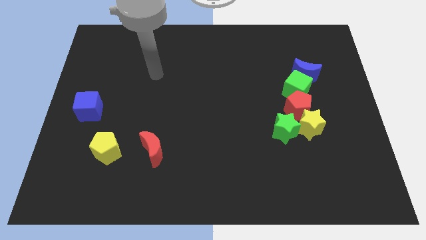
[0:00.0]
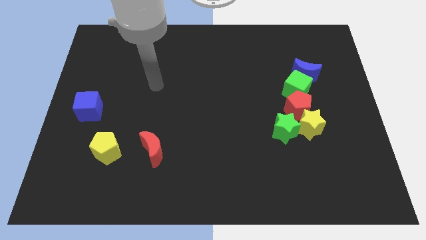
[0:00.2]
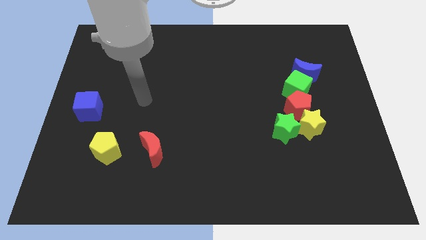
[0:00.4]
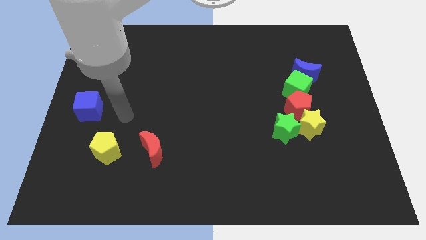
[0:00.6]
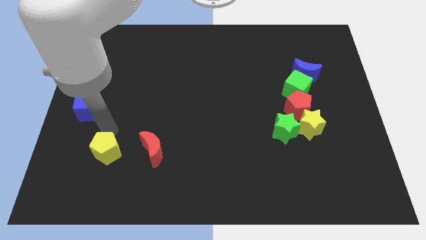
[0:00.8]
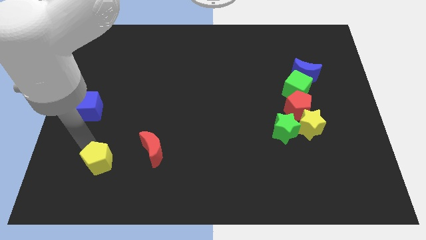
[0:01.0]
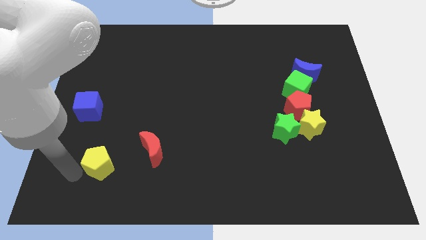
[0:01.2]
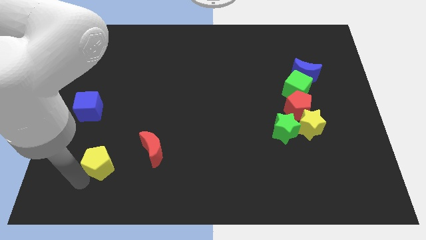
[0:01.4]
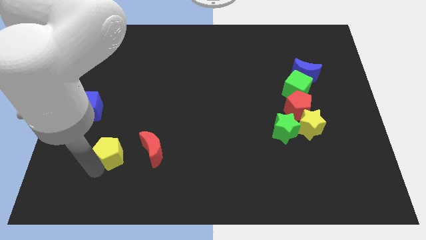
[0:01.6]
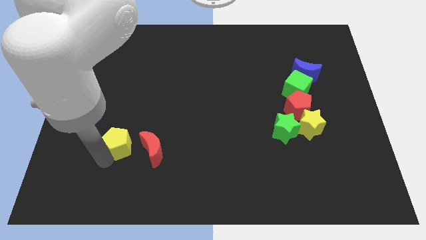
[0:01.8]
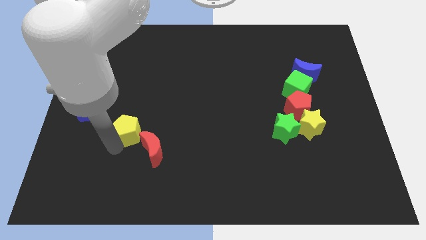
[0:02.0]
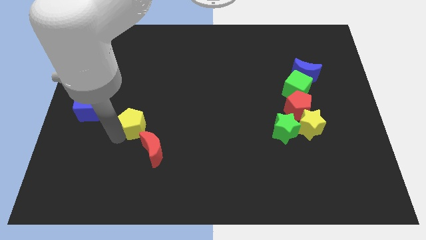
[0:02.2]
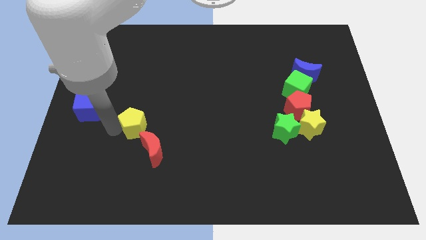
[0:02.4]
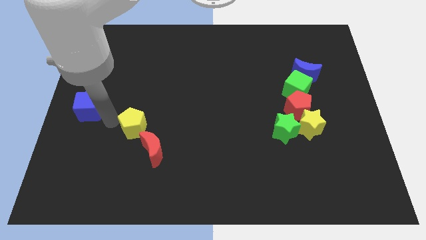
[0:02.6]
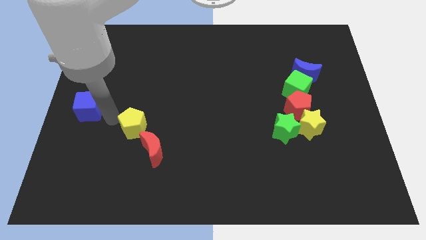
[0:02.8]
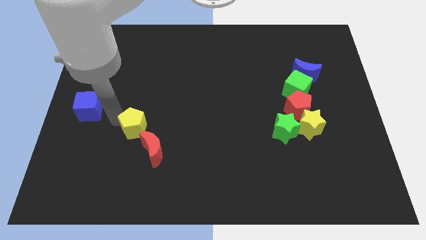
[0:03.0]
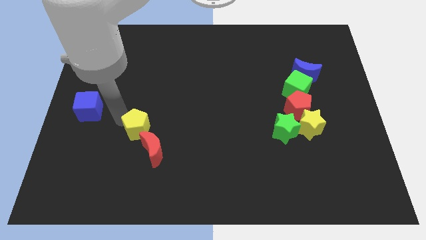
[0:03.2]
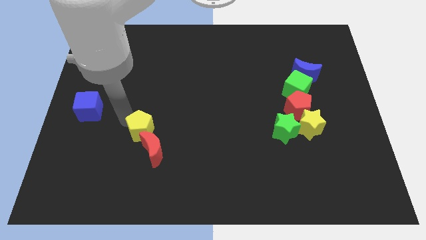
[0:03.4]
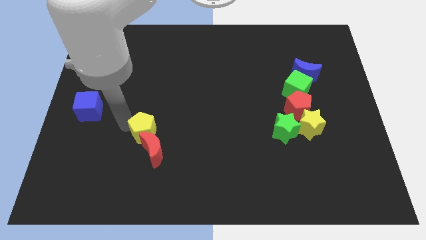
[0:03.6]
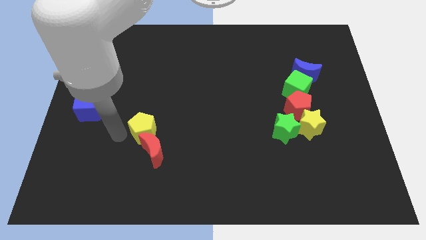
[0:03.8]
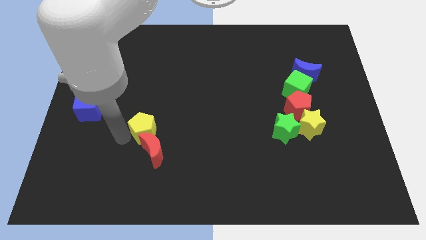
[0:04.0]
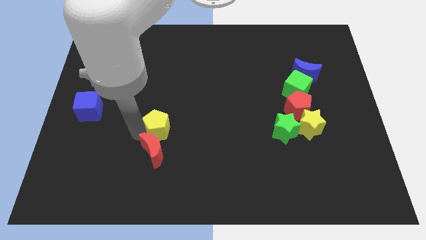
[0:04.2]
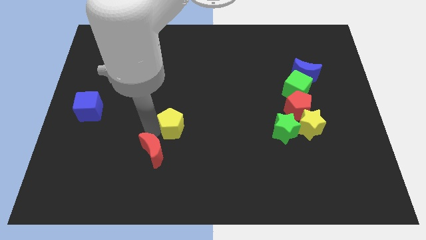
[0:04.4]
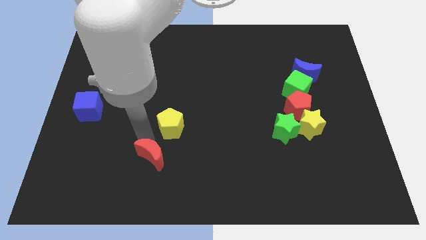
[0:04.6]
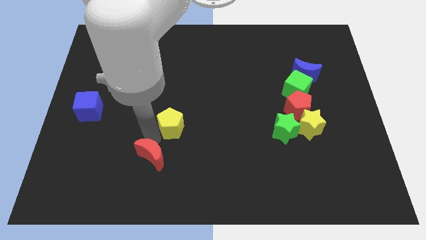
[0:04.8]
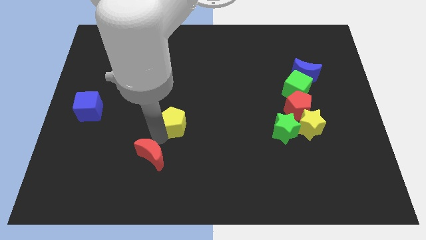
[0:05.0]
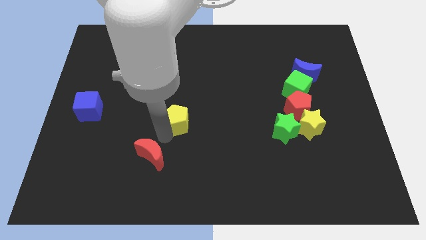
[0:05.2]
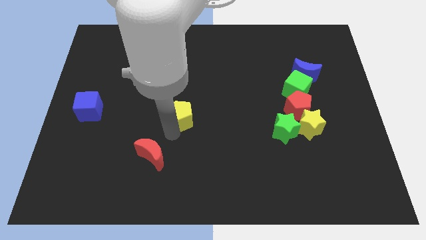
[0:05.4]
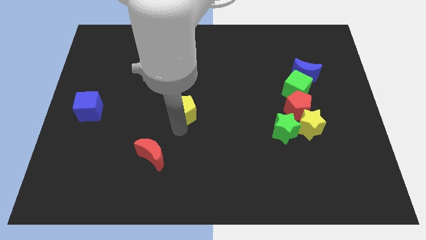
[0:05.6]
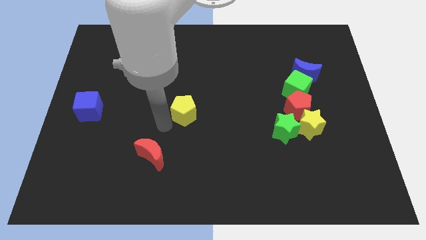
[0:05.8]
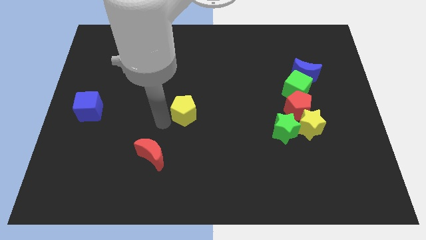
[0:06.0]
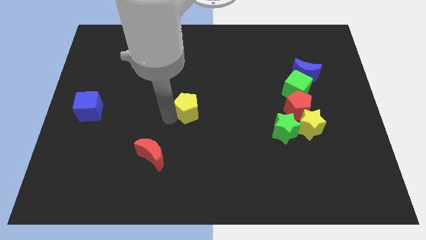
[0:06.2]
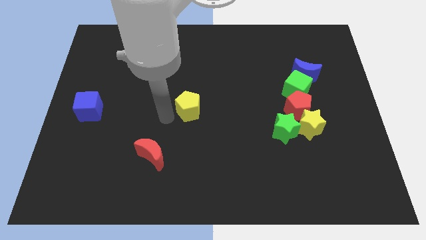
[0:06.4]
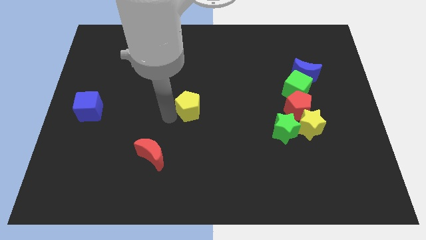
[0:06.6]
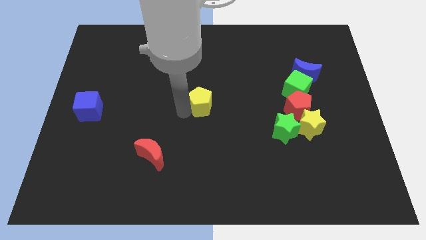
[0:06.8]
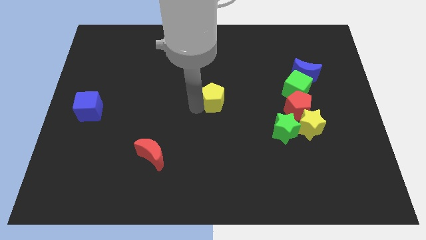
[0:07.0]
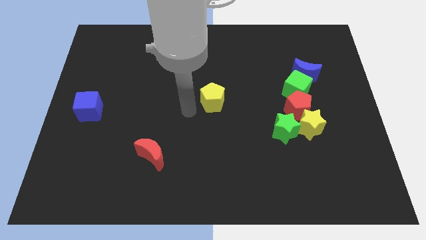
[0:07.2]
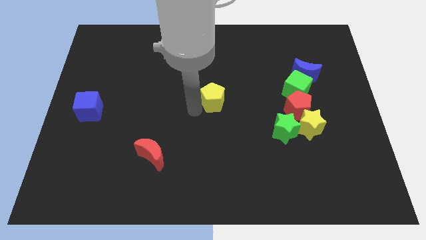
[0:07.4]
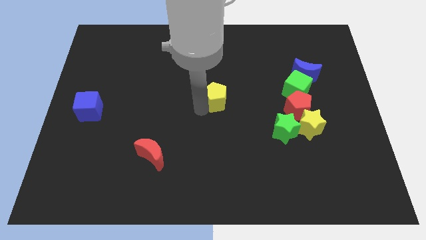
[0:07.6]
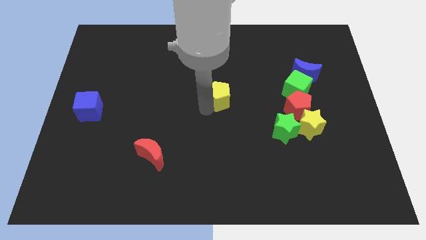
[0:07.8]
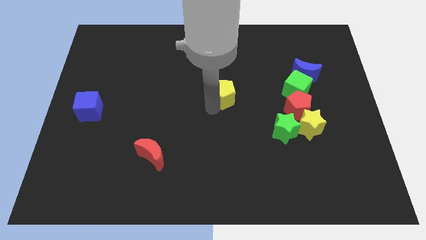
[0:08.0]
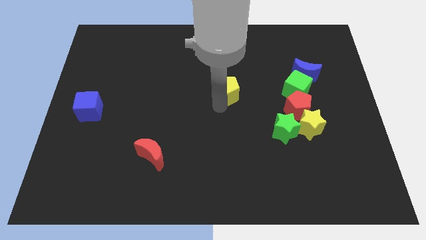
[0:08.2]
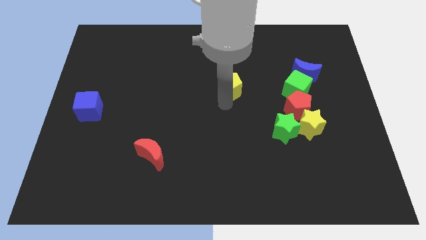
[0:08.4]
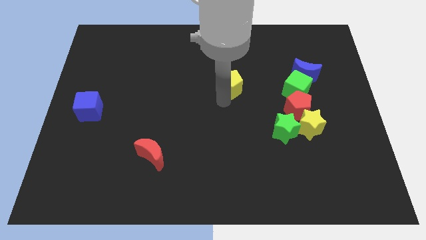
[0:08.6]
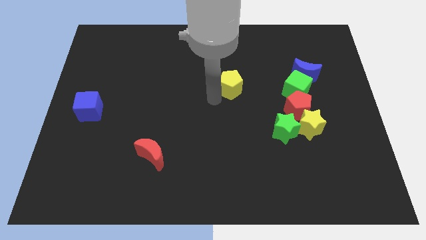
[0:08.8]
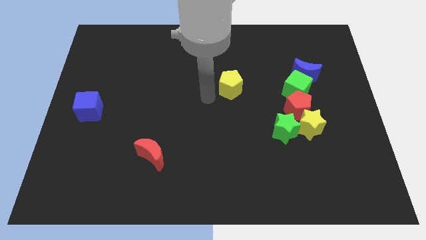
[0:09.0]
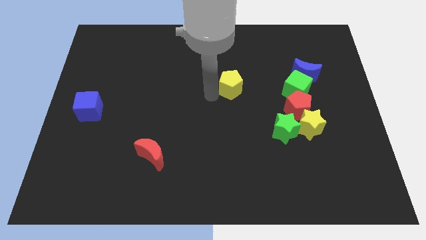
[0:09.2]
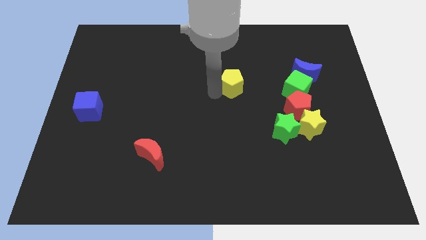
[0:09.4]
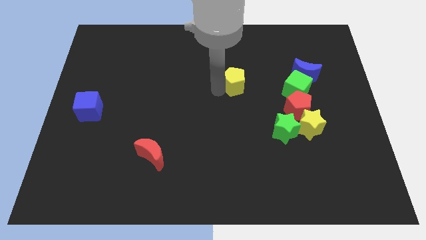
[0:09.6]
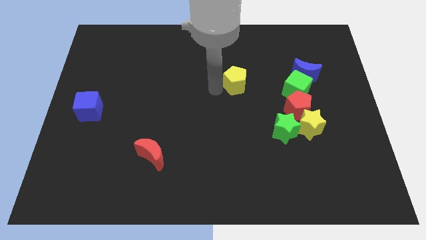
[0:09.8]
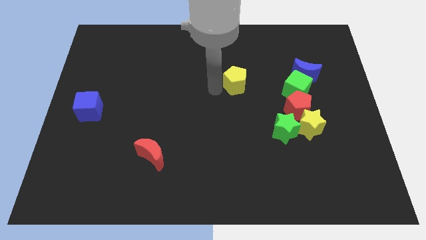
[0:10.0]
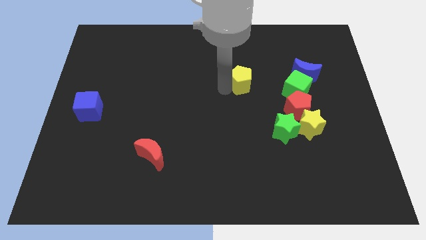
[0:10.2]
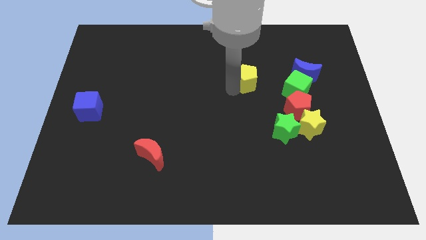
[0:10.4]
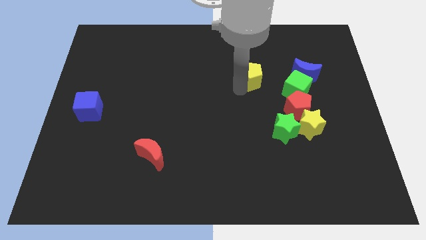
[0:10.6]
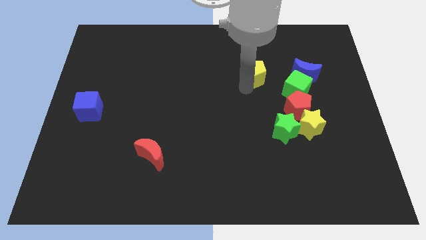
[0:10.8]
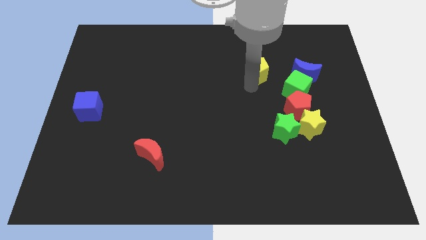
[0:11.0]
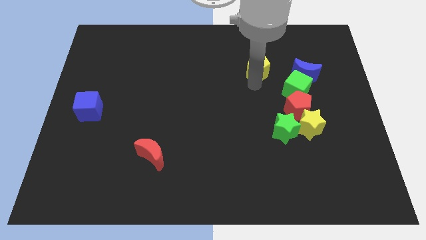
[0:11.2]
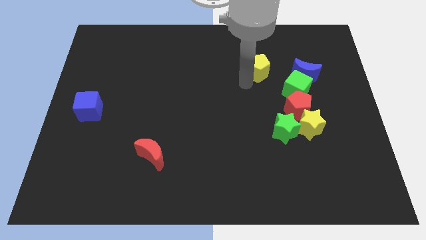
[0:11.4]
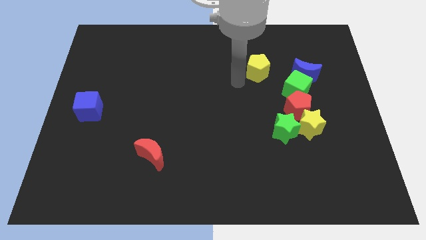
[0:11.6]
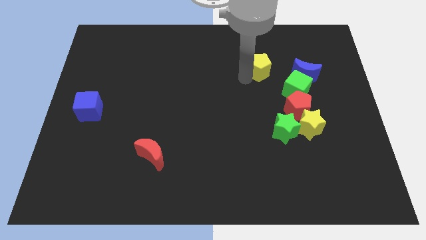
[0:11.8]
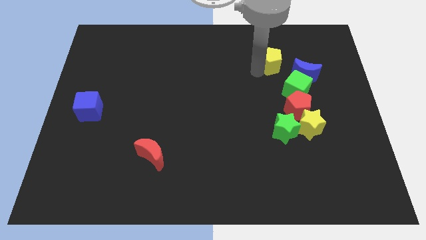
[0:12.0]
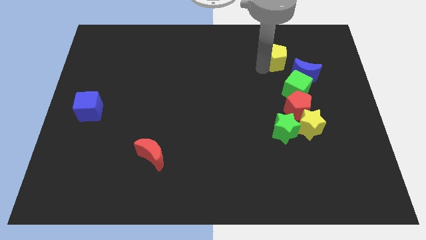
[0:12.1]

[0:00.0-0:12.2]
put the yellow pentagon to the top of the green cube
